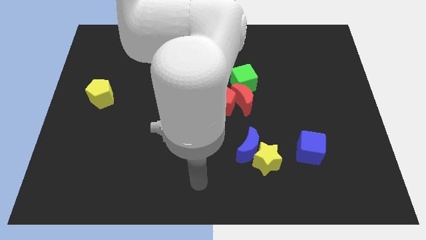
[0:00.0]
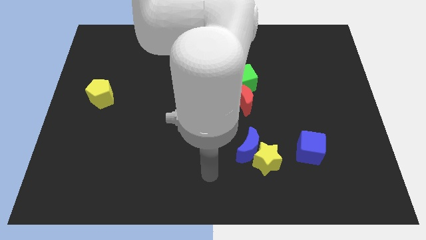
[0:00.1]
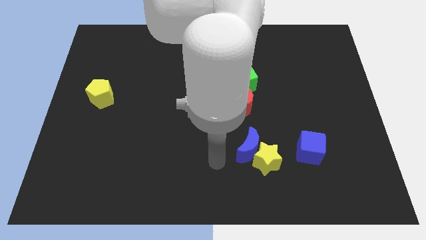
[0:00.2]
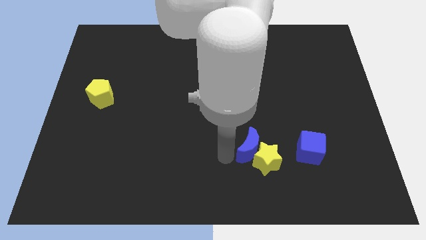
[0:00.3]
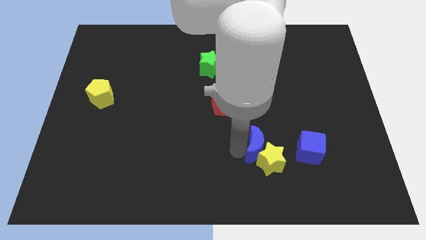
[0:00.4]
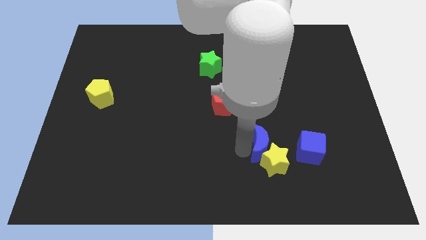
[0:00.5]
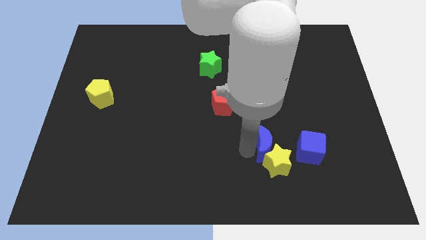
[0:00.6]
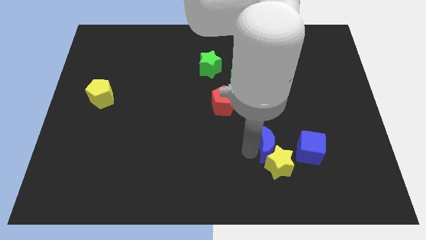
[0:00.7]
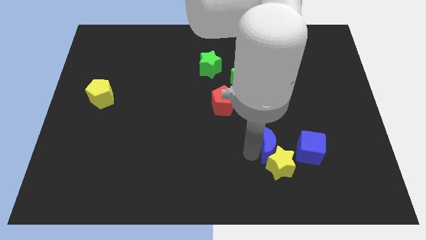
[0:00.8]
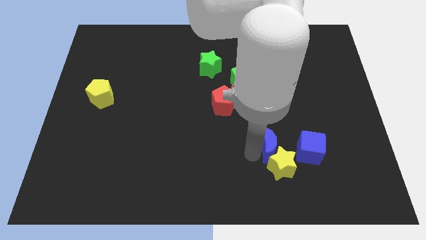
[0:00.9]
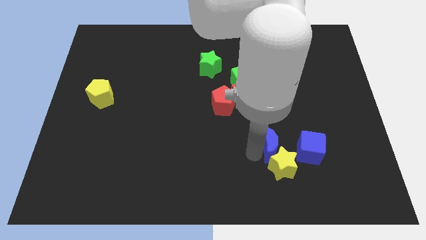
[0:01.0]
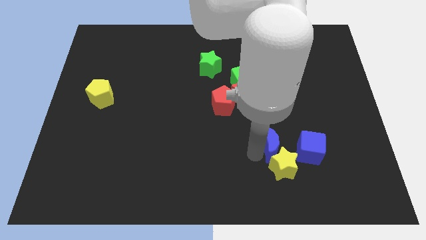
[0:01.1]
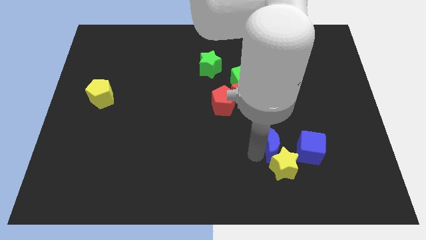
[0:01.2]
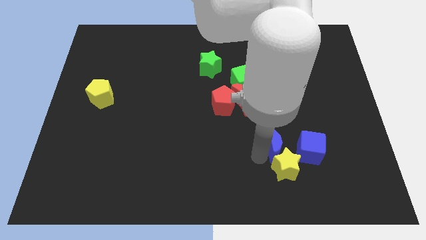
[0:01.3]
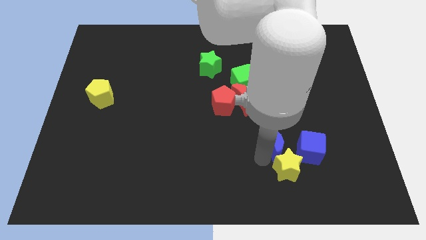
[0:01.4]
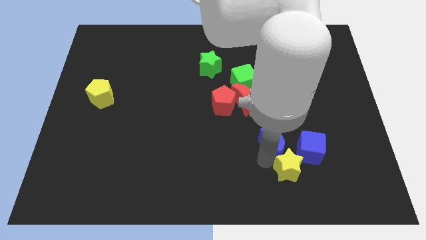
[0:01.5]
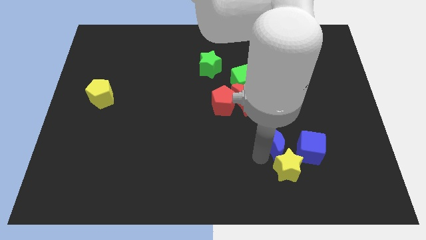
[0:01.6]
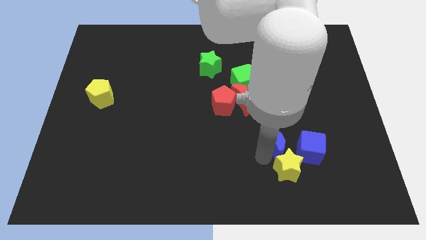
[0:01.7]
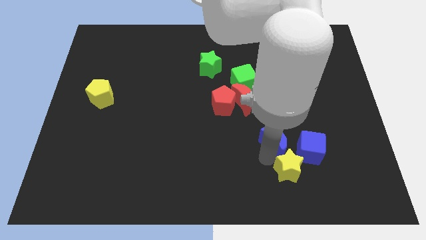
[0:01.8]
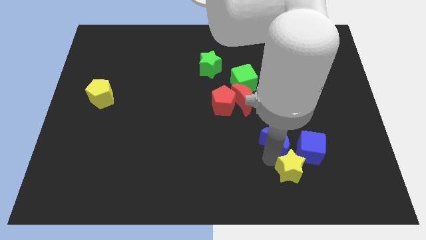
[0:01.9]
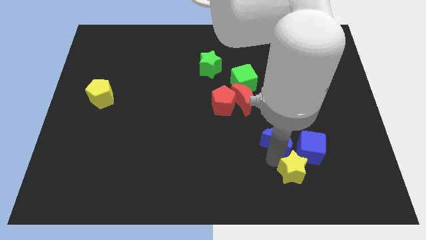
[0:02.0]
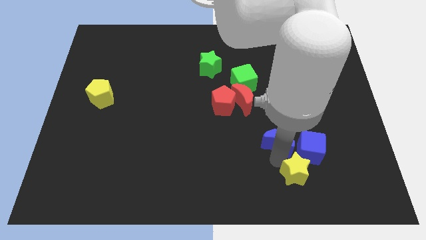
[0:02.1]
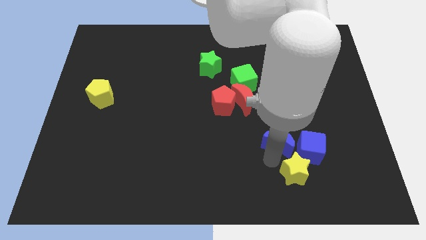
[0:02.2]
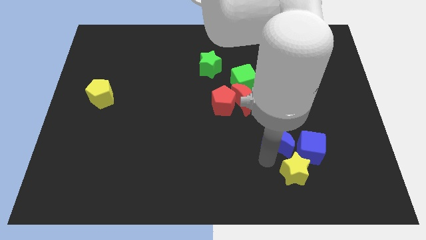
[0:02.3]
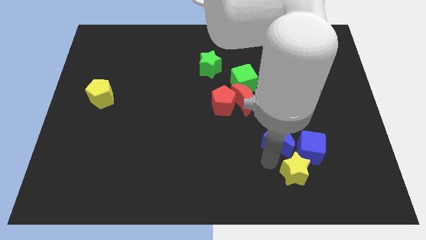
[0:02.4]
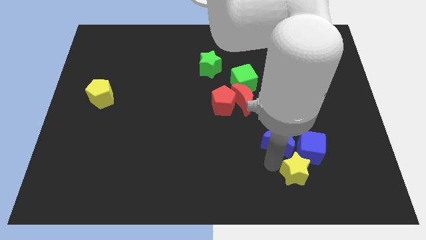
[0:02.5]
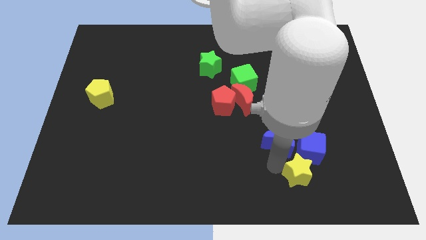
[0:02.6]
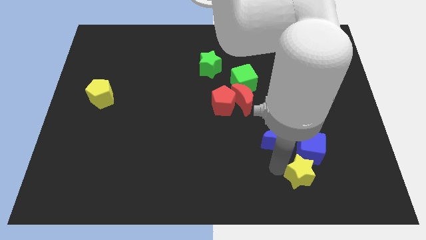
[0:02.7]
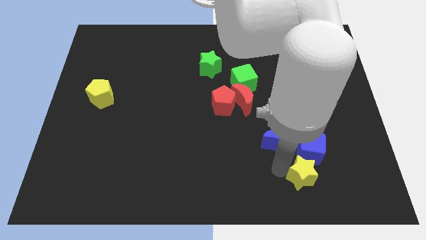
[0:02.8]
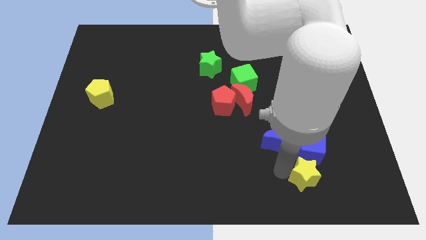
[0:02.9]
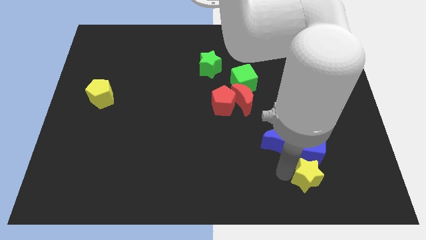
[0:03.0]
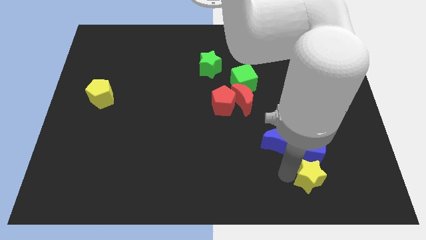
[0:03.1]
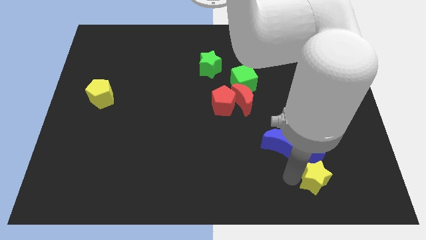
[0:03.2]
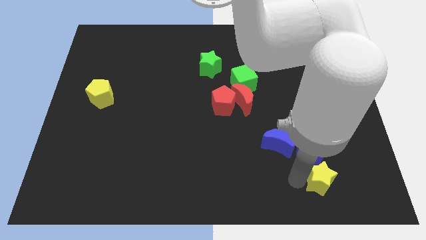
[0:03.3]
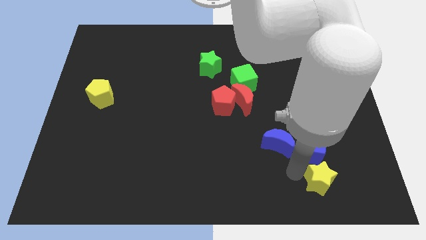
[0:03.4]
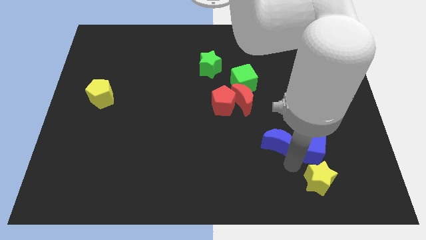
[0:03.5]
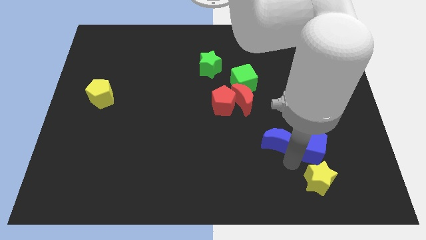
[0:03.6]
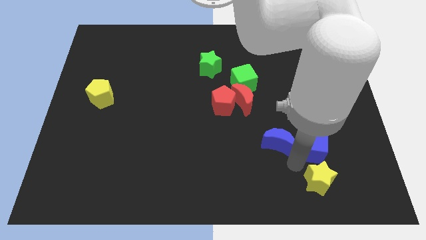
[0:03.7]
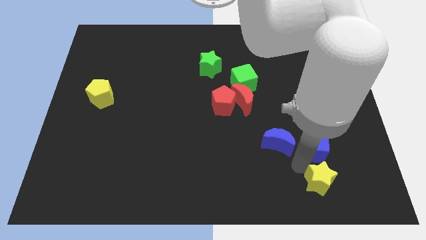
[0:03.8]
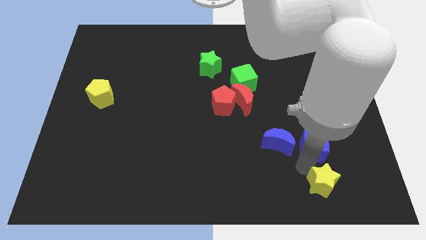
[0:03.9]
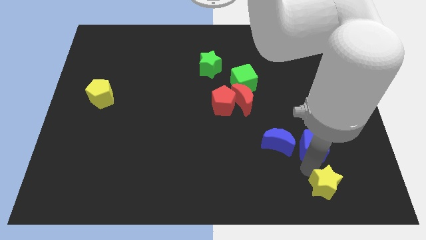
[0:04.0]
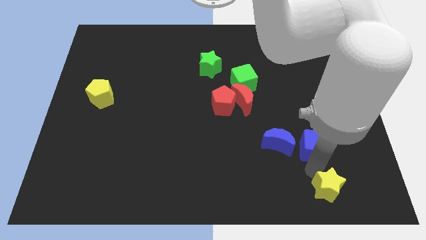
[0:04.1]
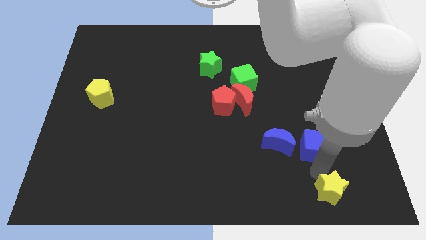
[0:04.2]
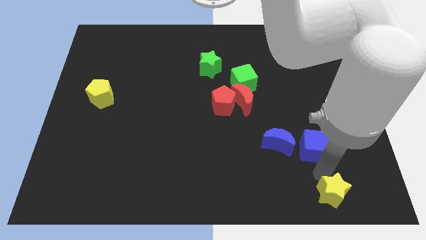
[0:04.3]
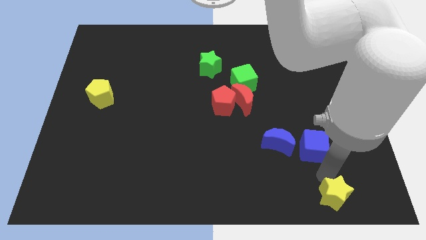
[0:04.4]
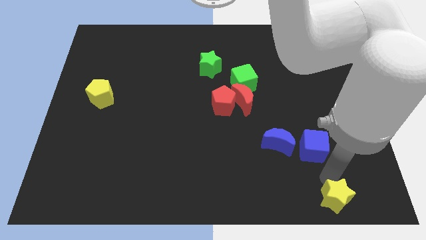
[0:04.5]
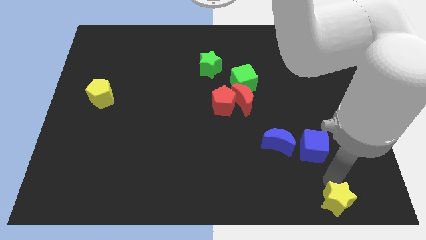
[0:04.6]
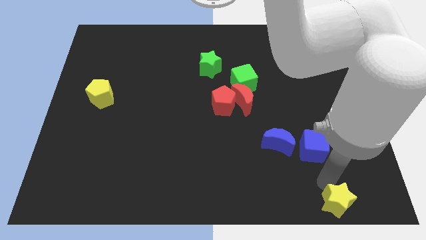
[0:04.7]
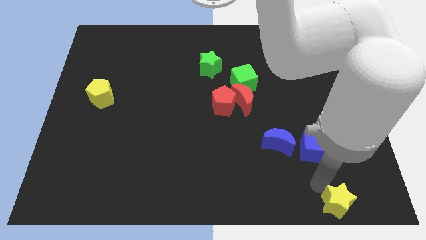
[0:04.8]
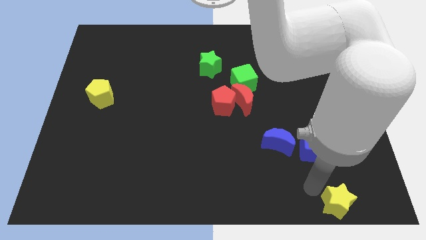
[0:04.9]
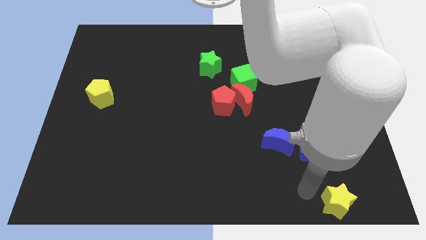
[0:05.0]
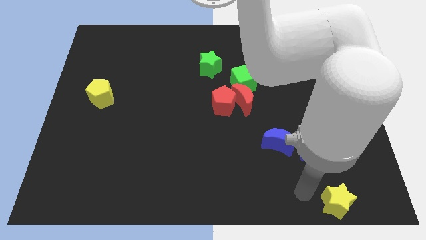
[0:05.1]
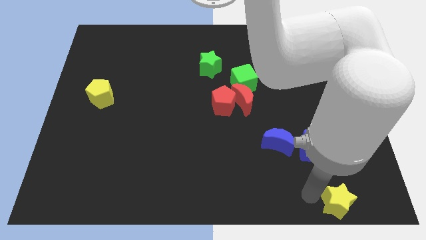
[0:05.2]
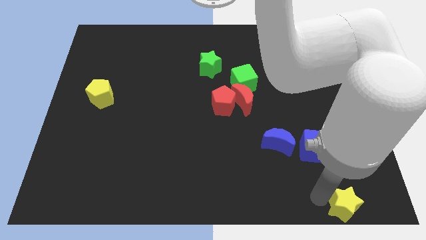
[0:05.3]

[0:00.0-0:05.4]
move the yellow star to the lower right corner
